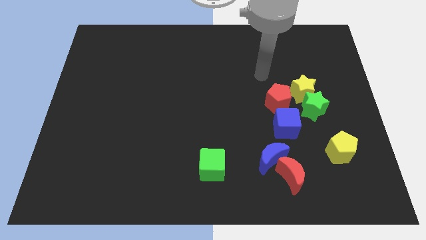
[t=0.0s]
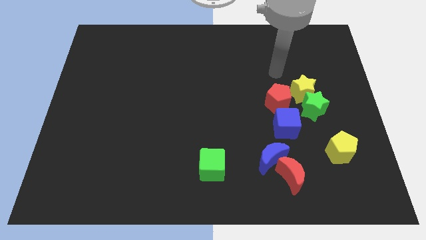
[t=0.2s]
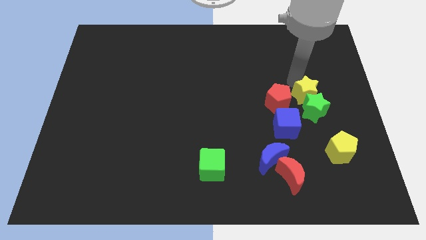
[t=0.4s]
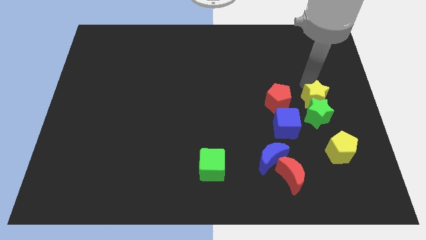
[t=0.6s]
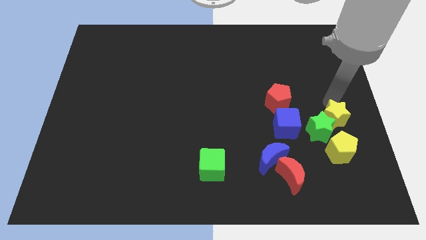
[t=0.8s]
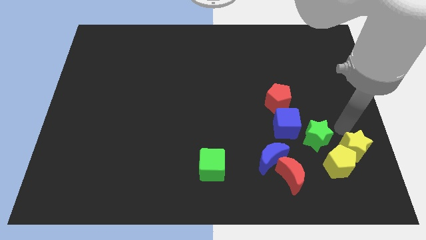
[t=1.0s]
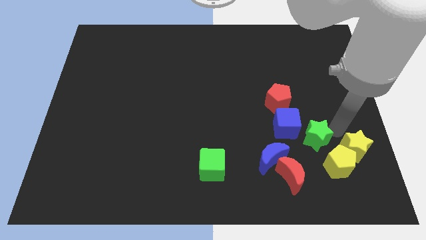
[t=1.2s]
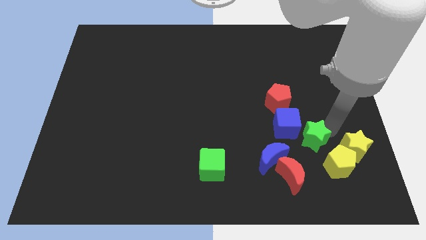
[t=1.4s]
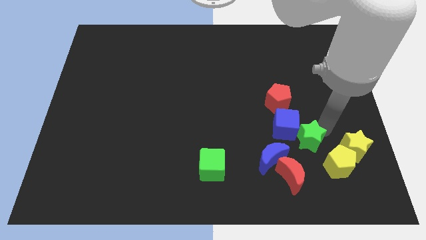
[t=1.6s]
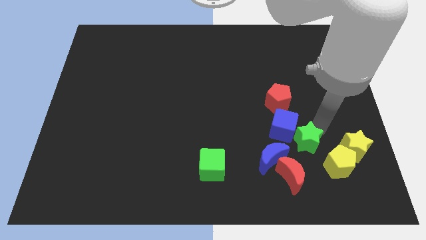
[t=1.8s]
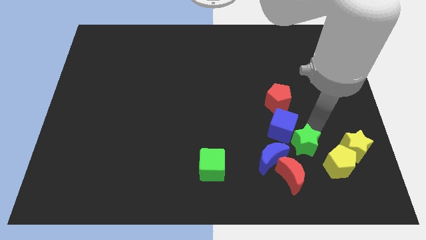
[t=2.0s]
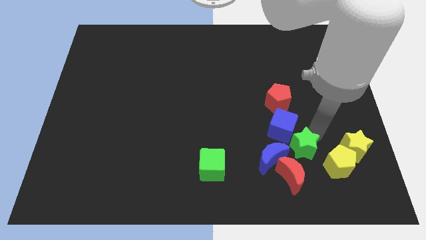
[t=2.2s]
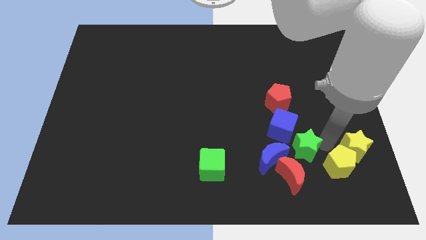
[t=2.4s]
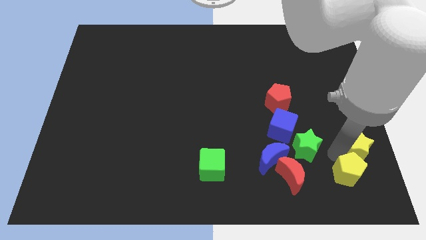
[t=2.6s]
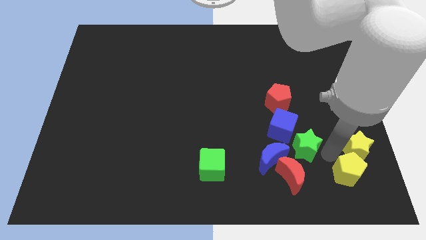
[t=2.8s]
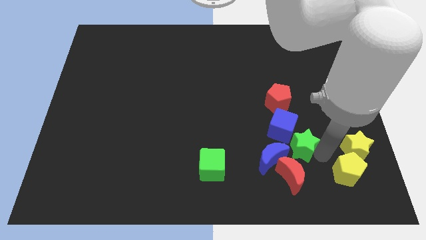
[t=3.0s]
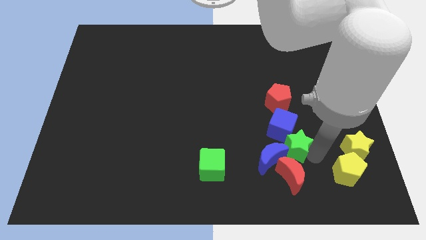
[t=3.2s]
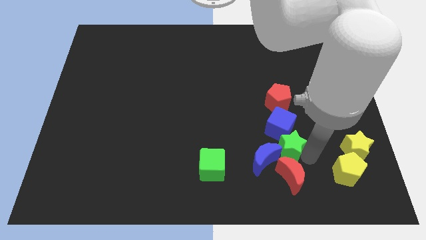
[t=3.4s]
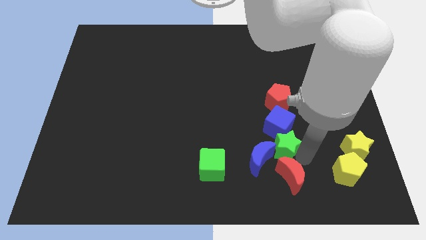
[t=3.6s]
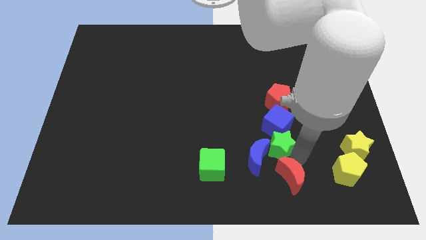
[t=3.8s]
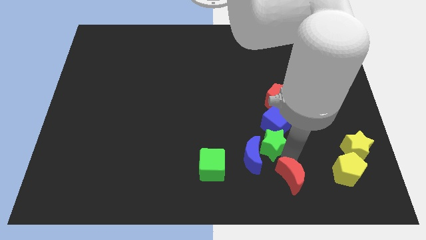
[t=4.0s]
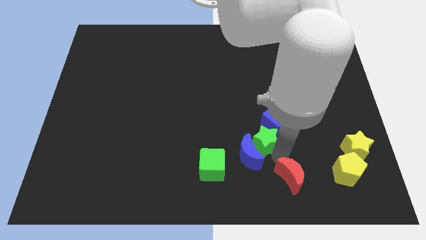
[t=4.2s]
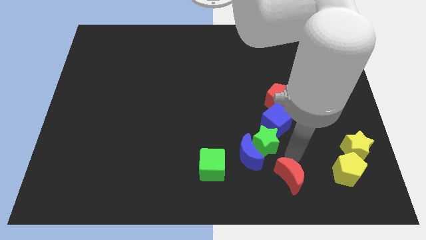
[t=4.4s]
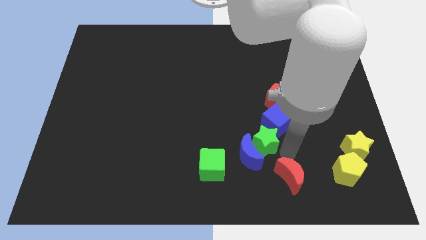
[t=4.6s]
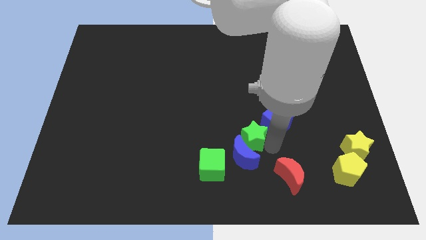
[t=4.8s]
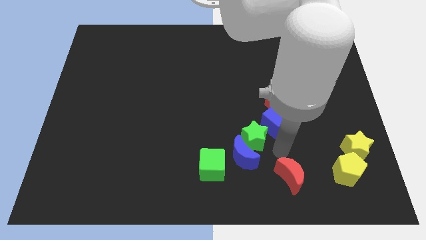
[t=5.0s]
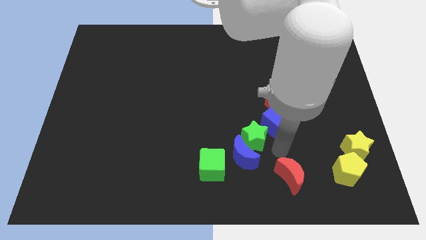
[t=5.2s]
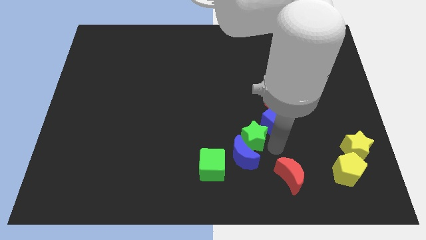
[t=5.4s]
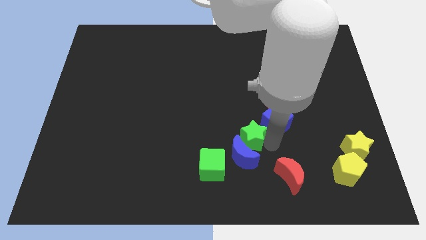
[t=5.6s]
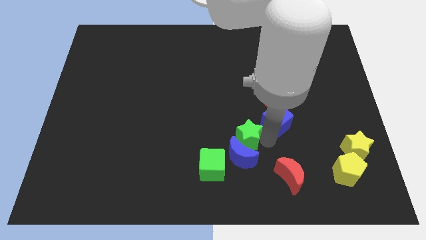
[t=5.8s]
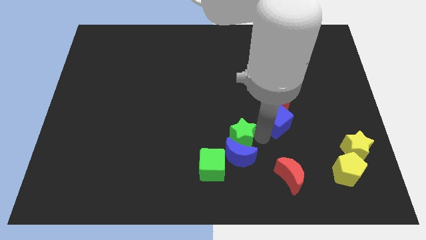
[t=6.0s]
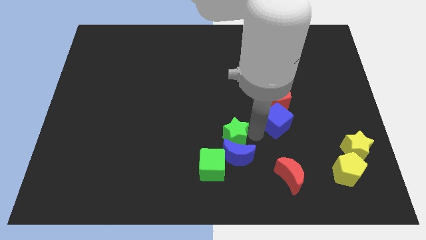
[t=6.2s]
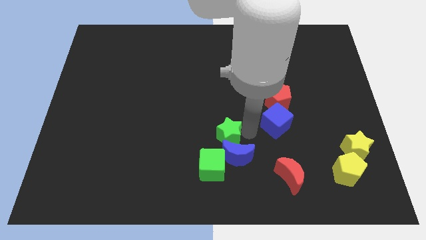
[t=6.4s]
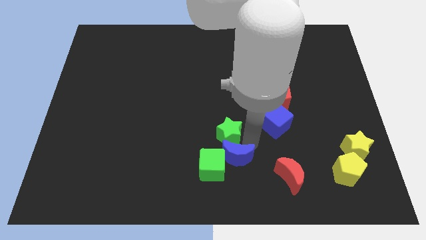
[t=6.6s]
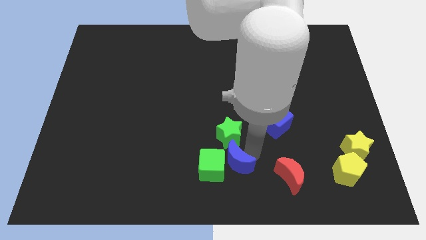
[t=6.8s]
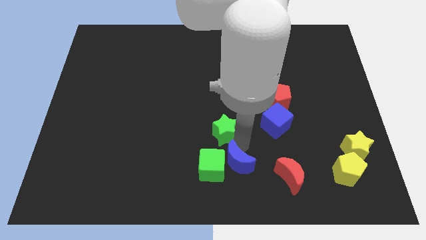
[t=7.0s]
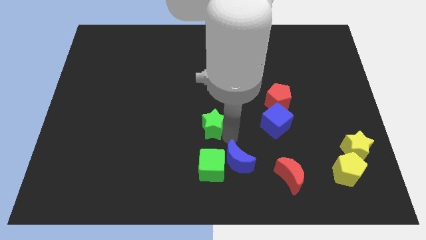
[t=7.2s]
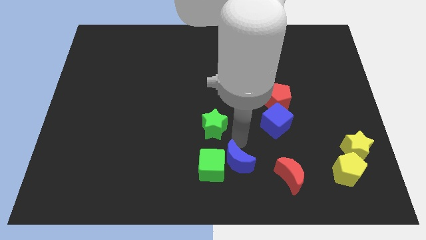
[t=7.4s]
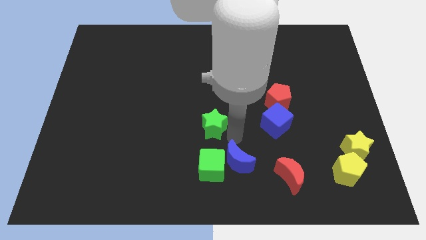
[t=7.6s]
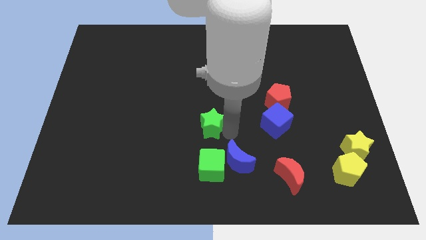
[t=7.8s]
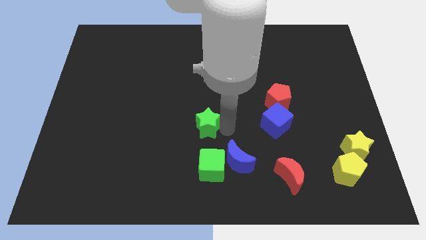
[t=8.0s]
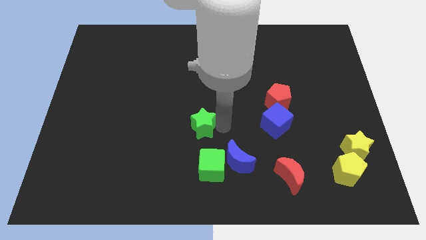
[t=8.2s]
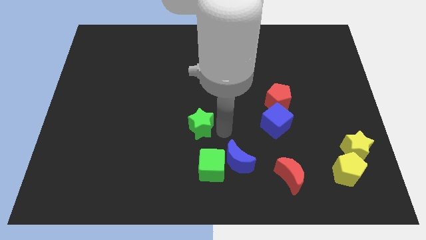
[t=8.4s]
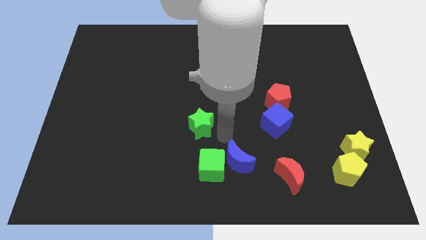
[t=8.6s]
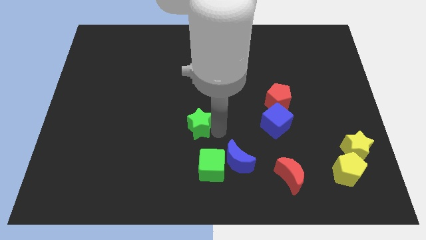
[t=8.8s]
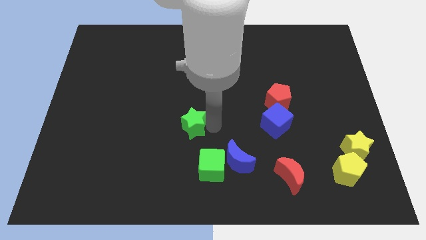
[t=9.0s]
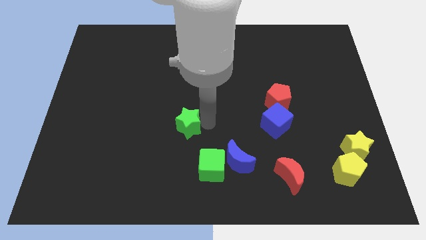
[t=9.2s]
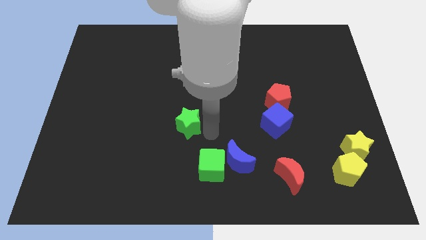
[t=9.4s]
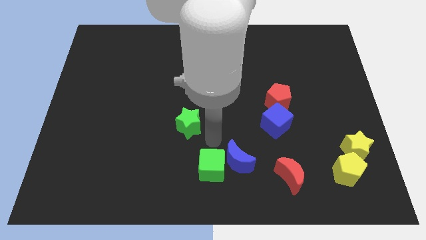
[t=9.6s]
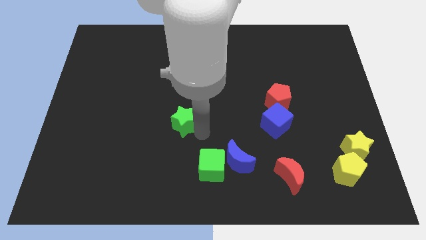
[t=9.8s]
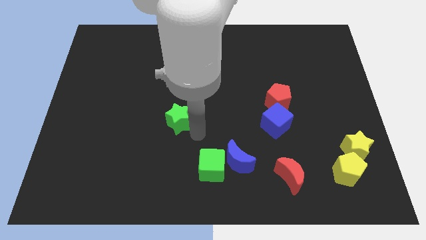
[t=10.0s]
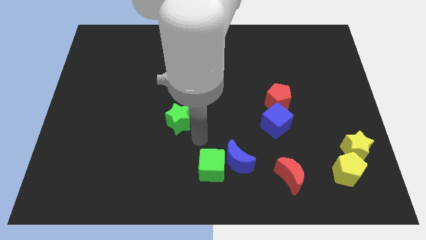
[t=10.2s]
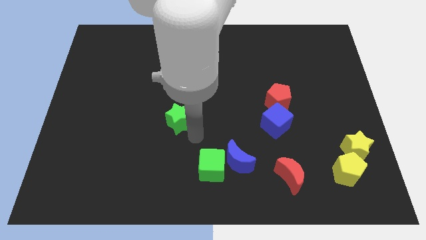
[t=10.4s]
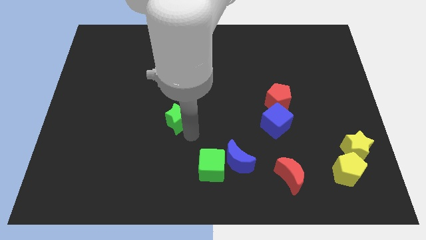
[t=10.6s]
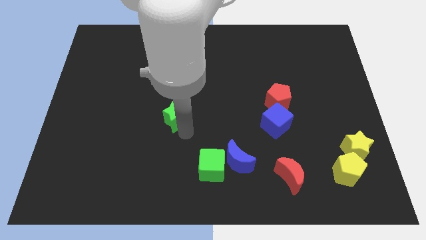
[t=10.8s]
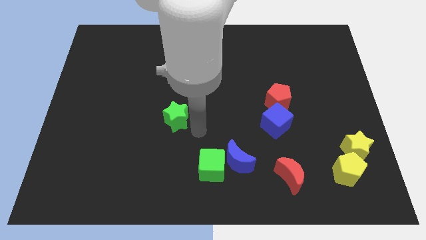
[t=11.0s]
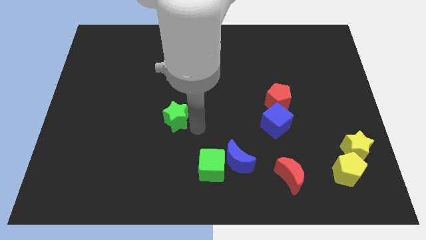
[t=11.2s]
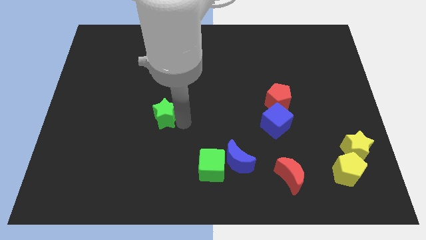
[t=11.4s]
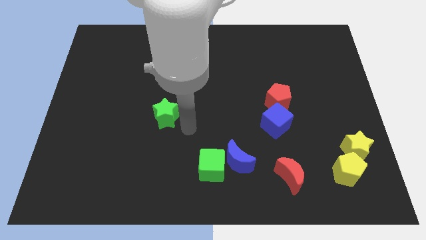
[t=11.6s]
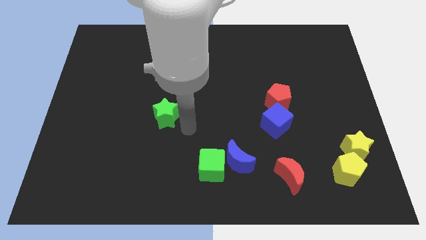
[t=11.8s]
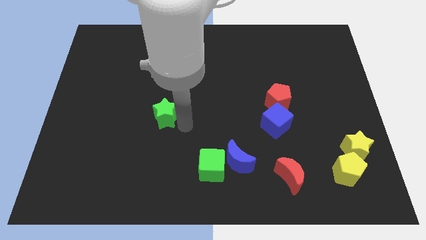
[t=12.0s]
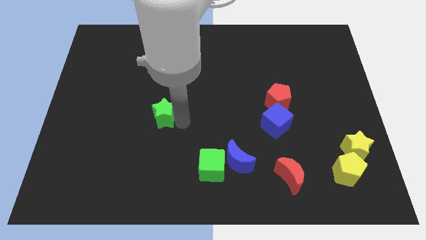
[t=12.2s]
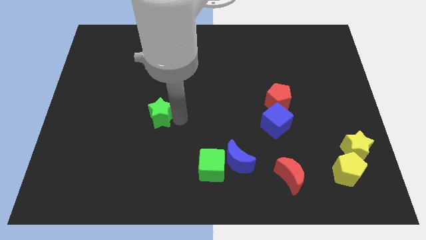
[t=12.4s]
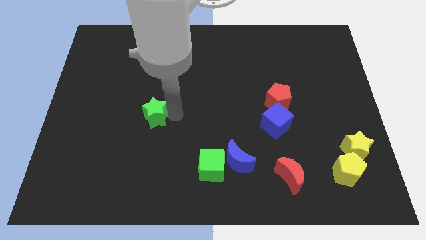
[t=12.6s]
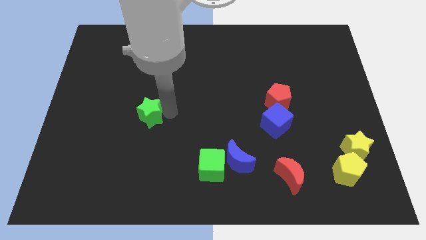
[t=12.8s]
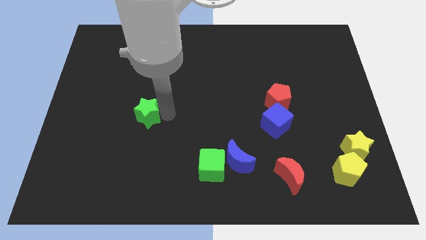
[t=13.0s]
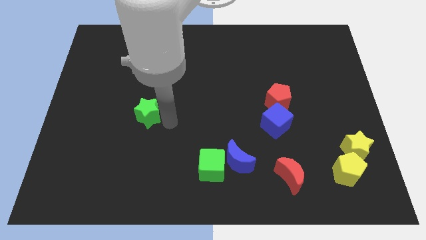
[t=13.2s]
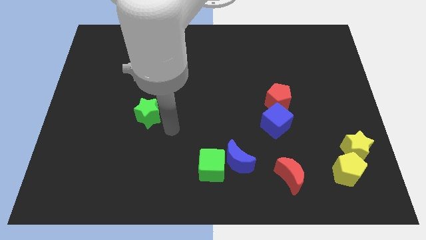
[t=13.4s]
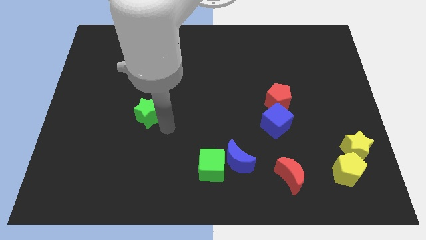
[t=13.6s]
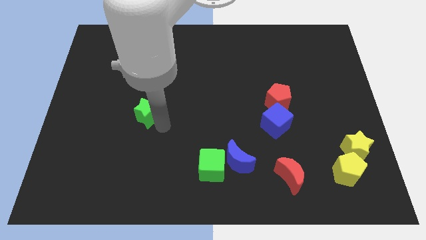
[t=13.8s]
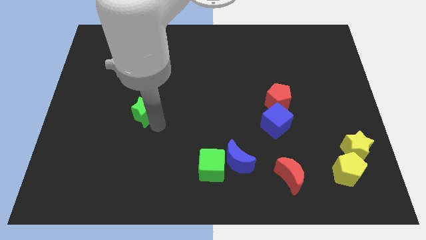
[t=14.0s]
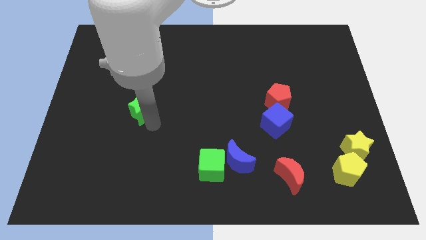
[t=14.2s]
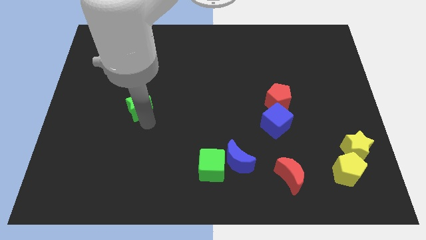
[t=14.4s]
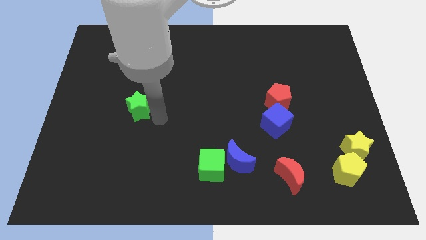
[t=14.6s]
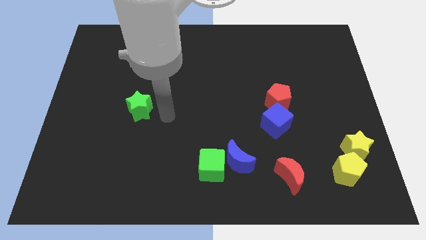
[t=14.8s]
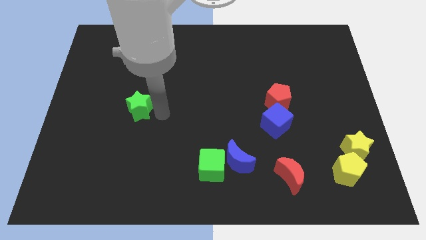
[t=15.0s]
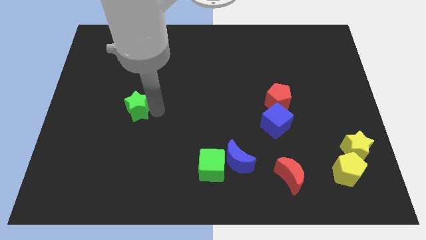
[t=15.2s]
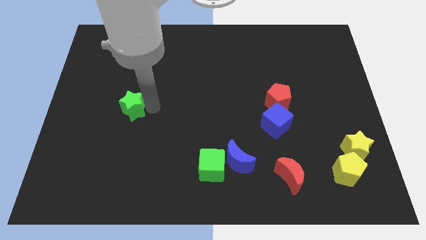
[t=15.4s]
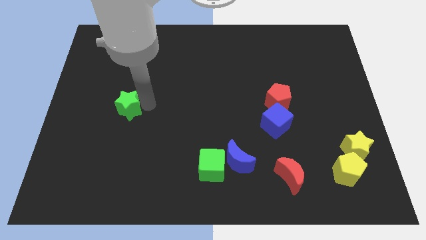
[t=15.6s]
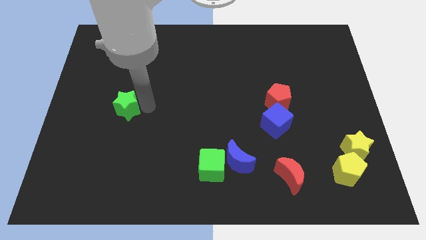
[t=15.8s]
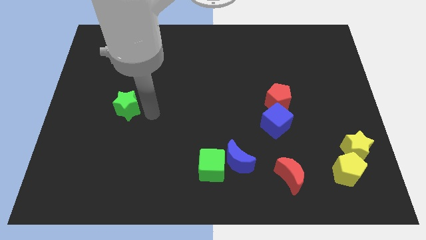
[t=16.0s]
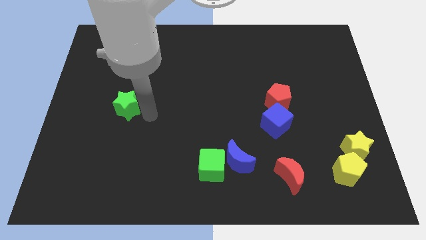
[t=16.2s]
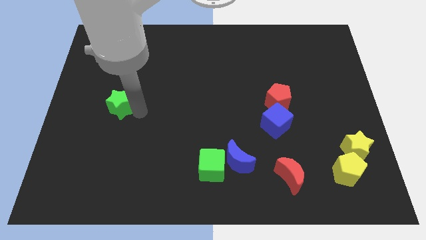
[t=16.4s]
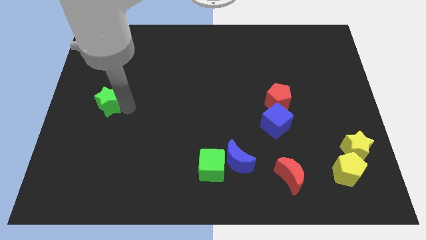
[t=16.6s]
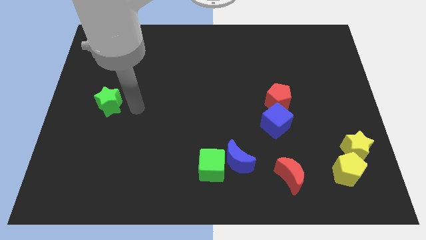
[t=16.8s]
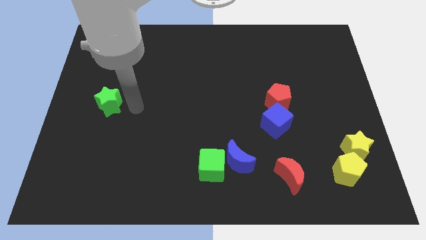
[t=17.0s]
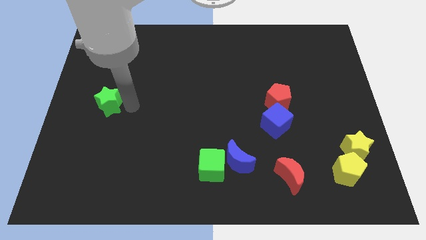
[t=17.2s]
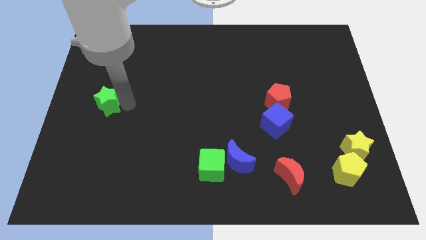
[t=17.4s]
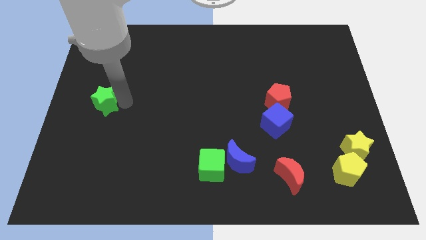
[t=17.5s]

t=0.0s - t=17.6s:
push the green star to the center left
